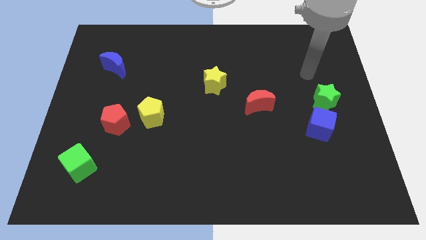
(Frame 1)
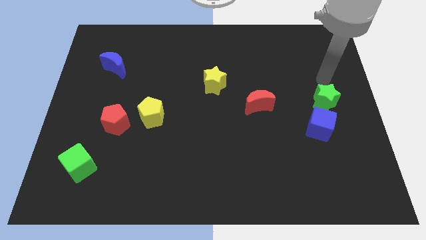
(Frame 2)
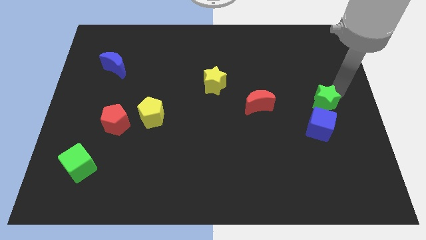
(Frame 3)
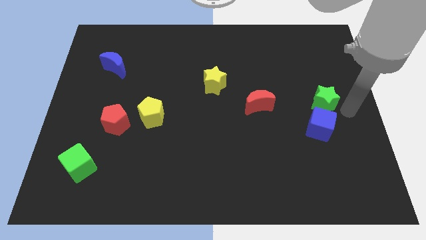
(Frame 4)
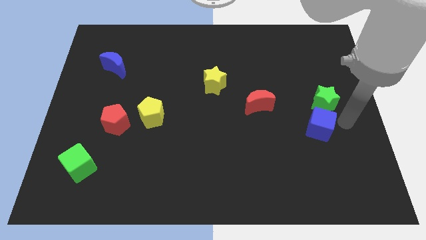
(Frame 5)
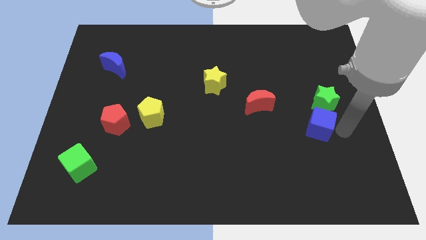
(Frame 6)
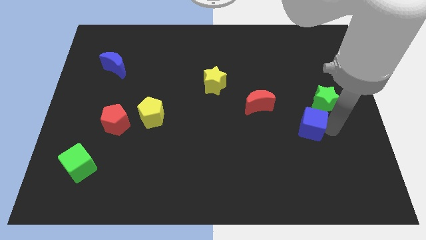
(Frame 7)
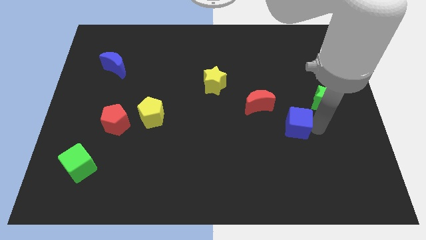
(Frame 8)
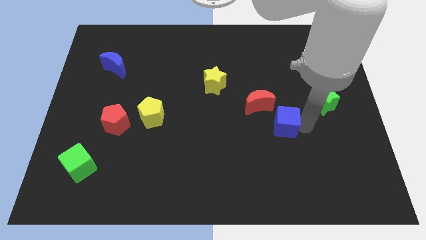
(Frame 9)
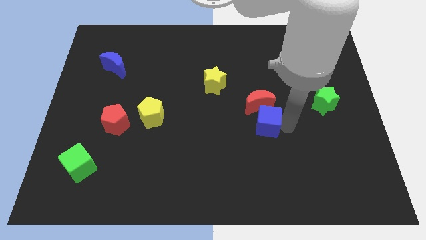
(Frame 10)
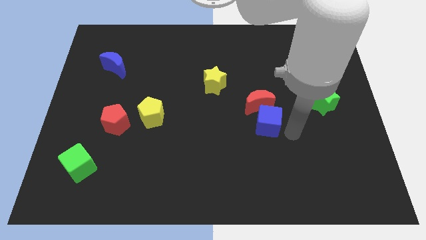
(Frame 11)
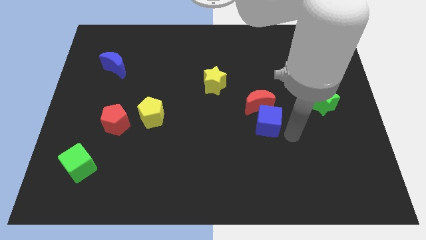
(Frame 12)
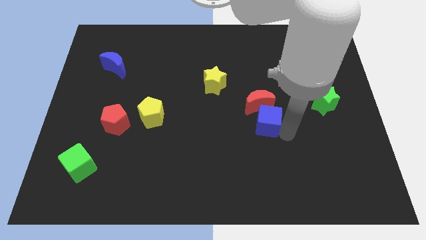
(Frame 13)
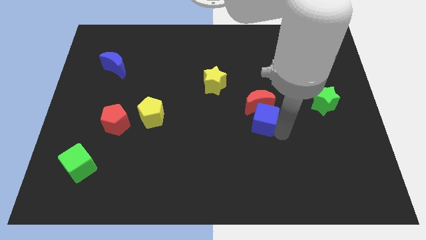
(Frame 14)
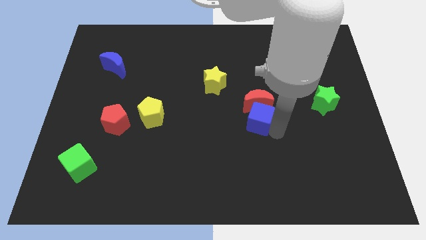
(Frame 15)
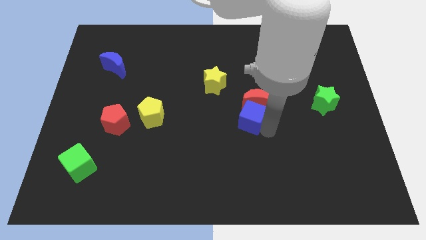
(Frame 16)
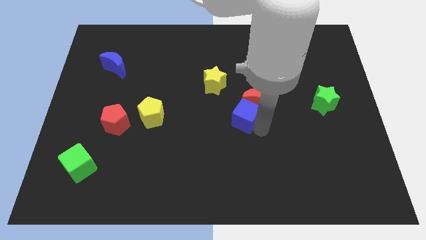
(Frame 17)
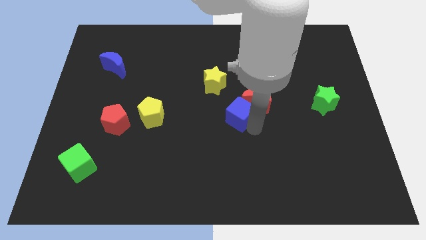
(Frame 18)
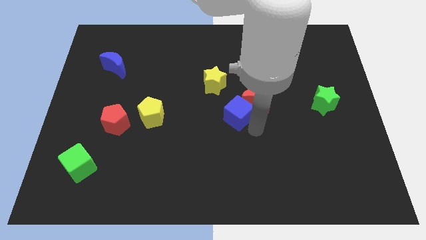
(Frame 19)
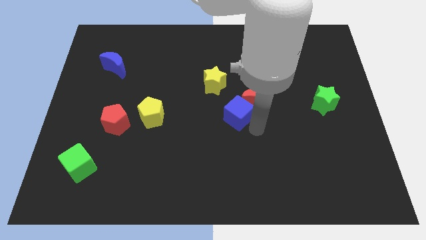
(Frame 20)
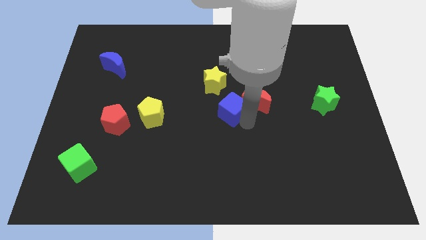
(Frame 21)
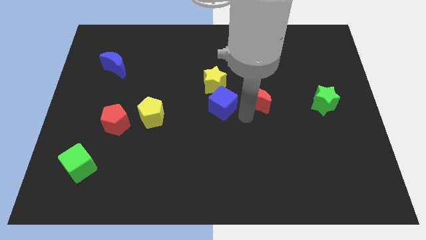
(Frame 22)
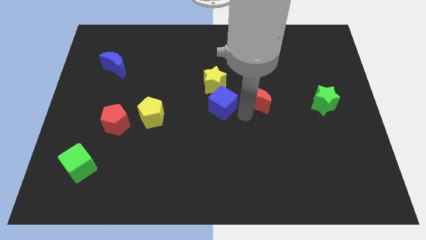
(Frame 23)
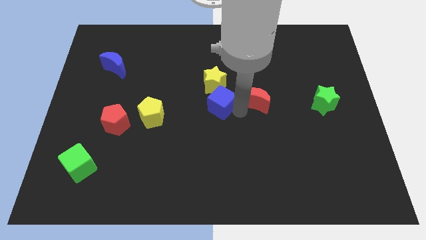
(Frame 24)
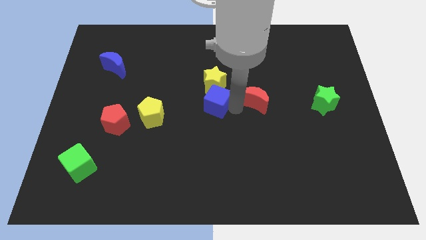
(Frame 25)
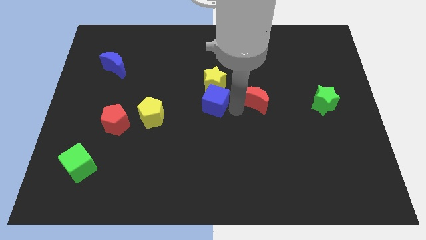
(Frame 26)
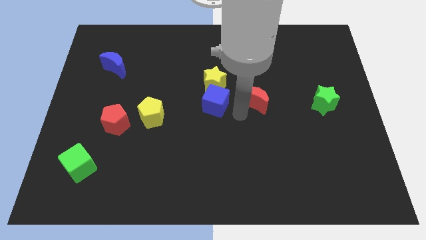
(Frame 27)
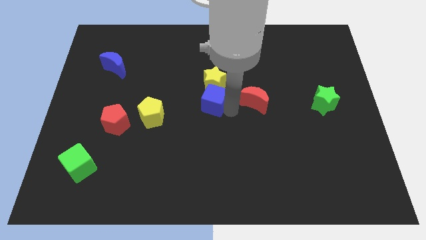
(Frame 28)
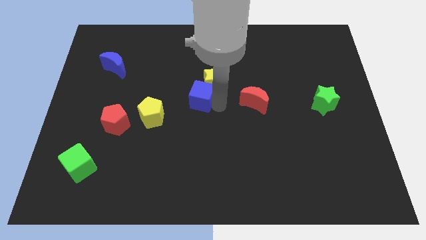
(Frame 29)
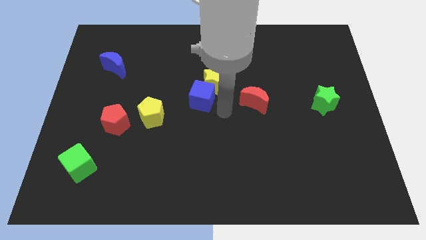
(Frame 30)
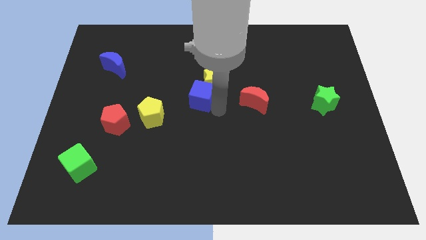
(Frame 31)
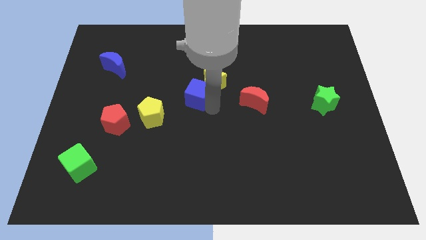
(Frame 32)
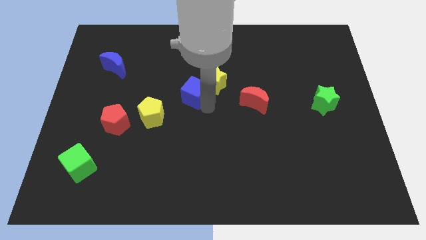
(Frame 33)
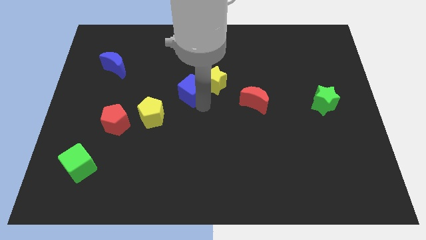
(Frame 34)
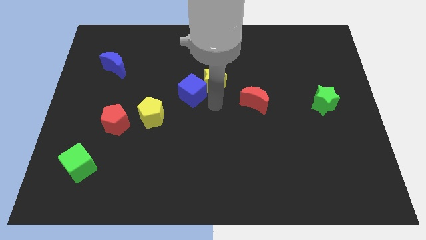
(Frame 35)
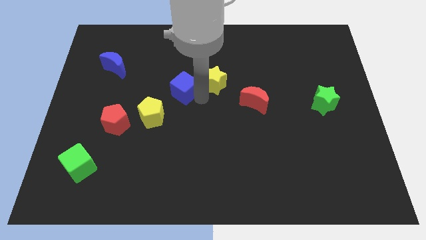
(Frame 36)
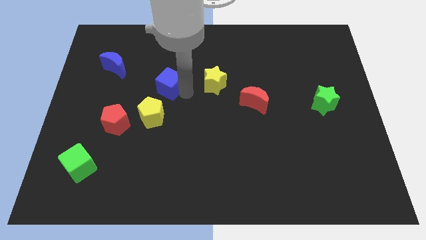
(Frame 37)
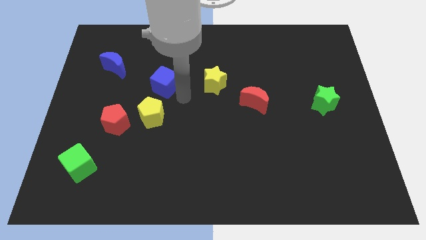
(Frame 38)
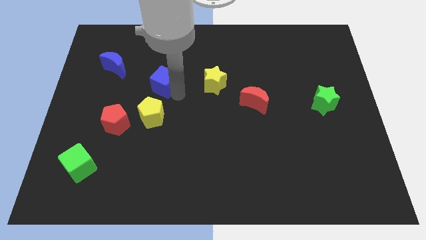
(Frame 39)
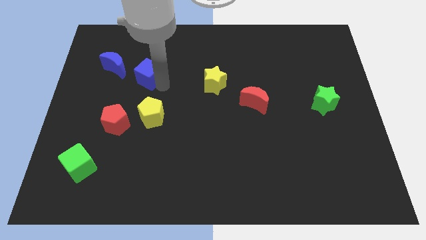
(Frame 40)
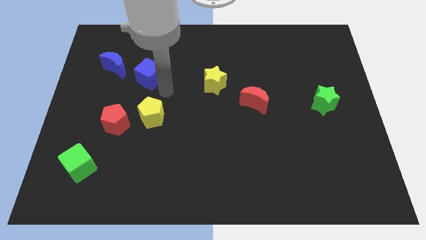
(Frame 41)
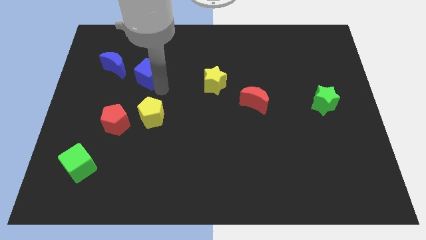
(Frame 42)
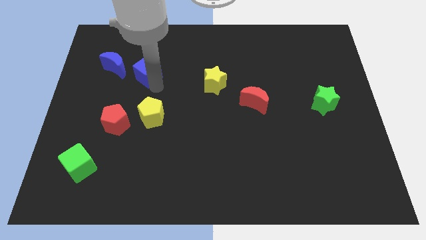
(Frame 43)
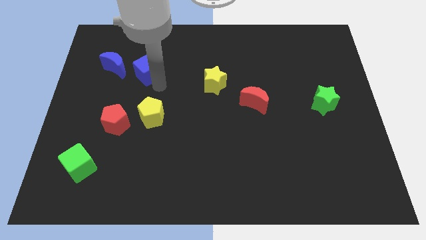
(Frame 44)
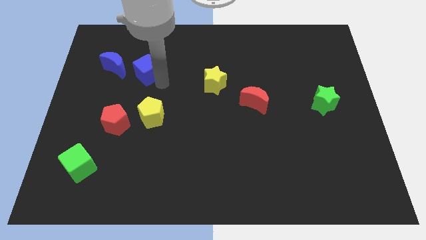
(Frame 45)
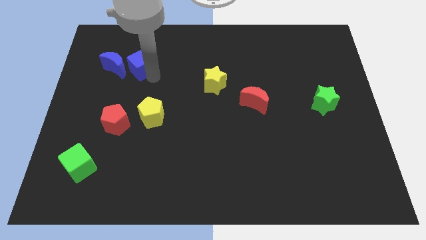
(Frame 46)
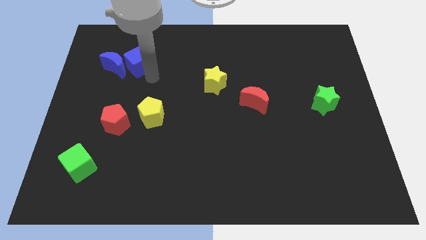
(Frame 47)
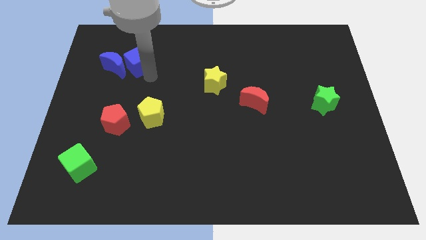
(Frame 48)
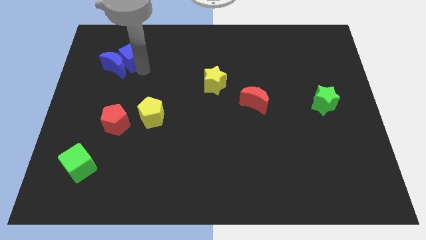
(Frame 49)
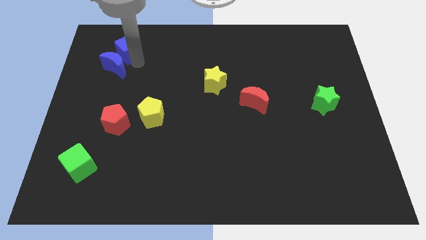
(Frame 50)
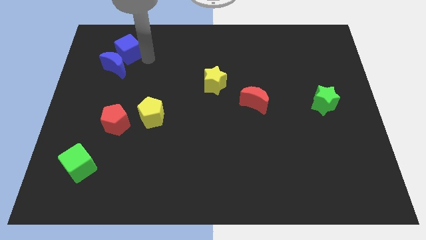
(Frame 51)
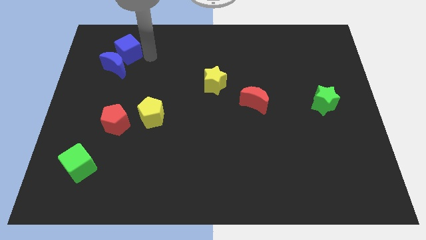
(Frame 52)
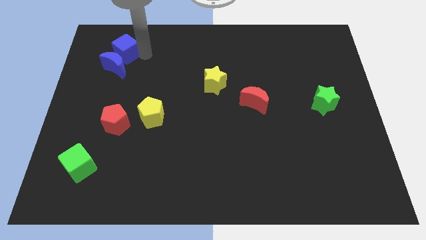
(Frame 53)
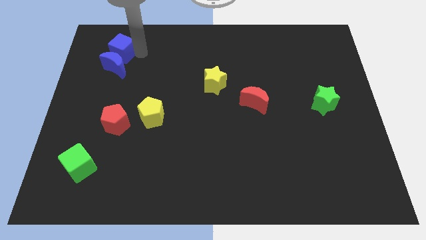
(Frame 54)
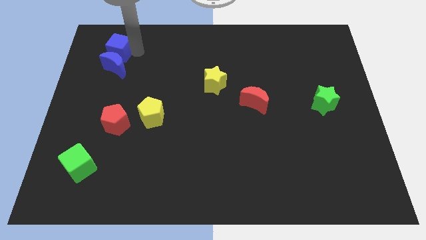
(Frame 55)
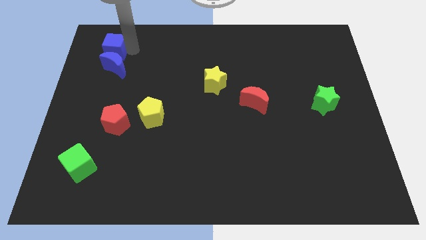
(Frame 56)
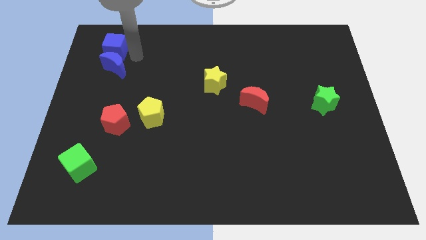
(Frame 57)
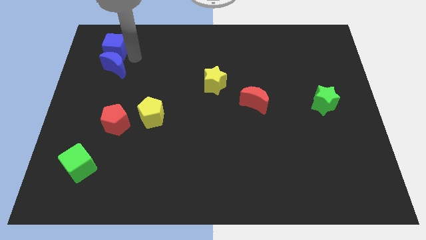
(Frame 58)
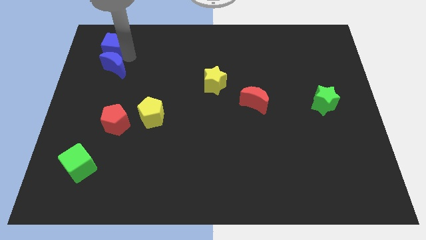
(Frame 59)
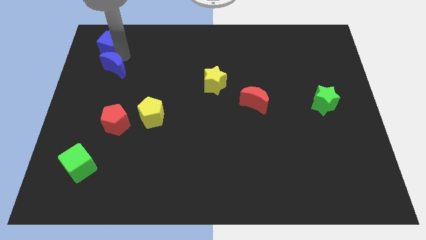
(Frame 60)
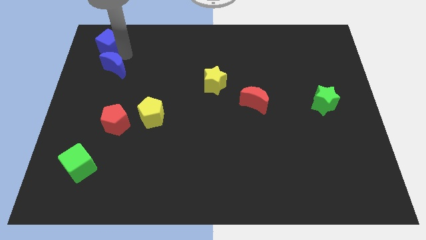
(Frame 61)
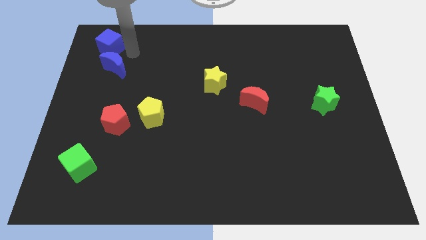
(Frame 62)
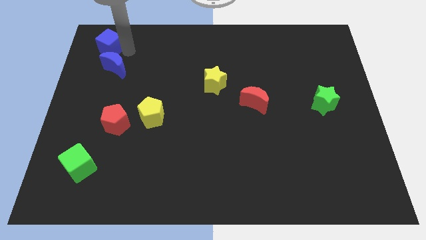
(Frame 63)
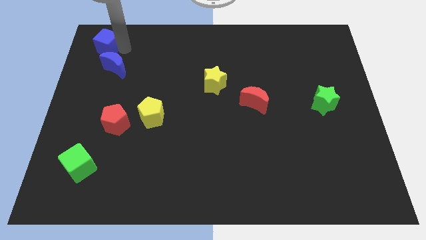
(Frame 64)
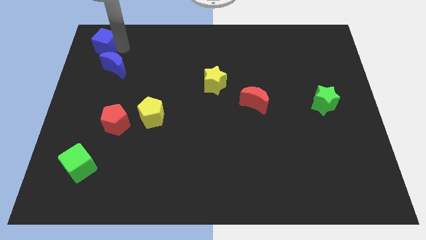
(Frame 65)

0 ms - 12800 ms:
put the blue cube to the upper left corner
